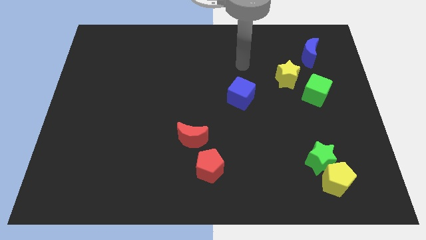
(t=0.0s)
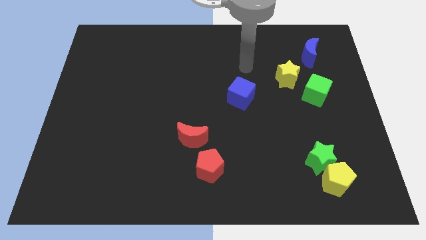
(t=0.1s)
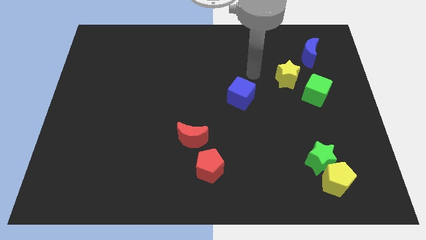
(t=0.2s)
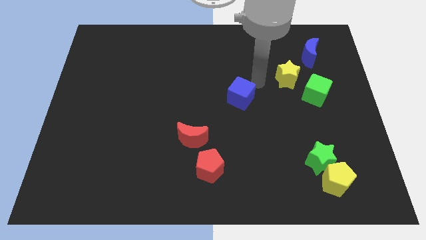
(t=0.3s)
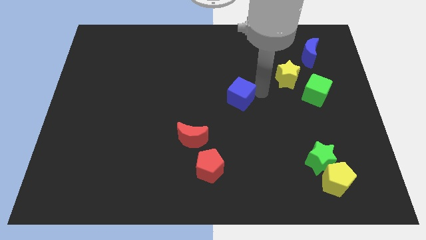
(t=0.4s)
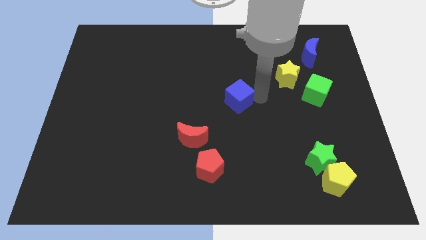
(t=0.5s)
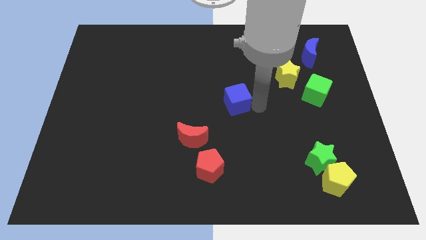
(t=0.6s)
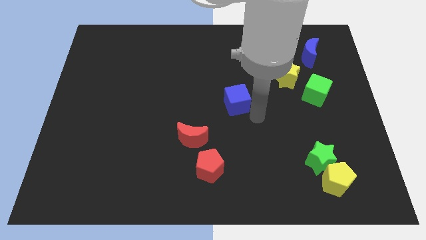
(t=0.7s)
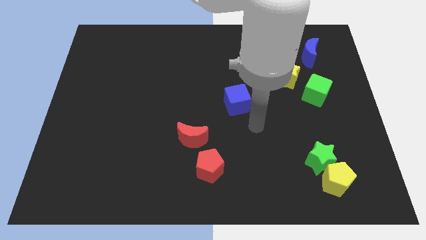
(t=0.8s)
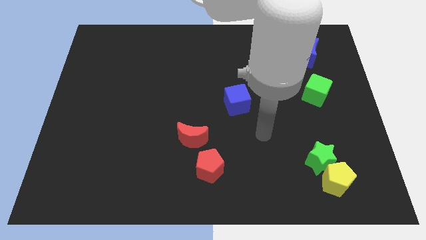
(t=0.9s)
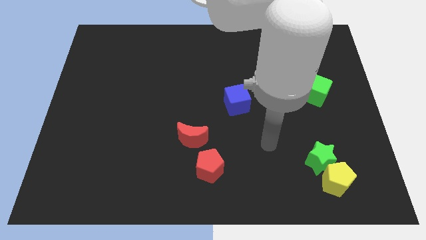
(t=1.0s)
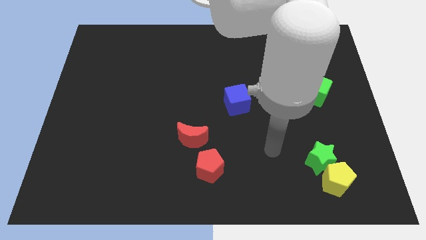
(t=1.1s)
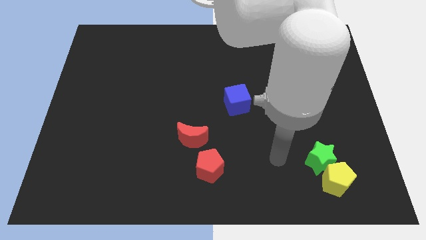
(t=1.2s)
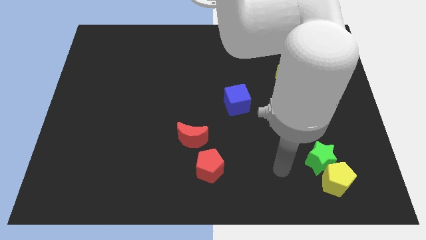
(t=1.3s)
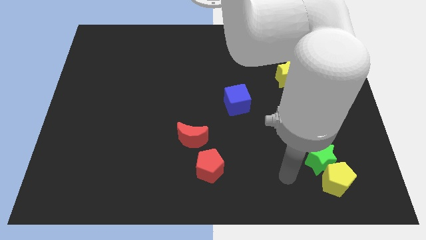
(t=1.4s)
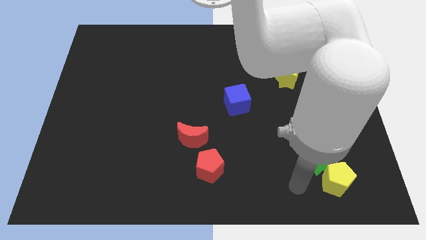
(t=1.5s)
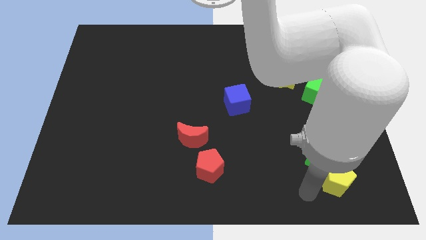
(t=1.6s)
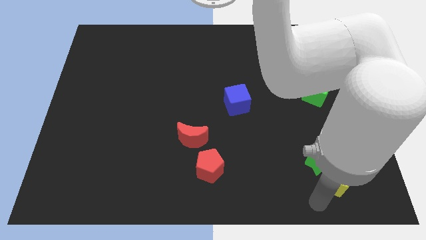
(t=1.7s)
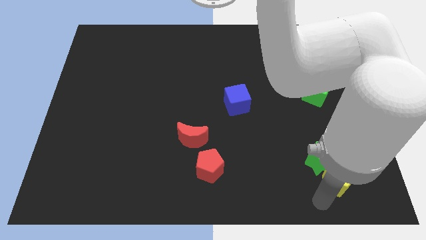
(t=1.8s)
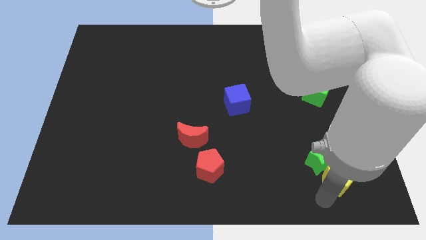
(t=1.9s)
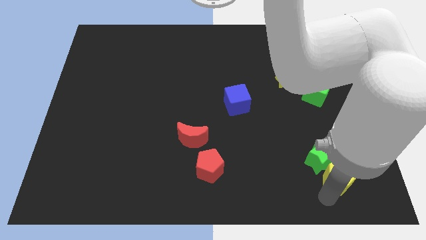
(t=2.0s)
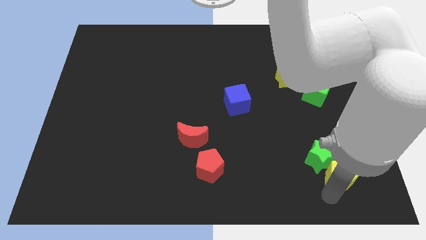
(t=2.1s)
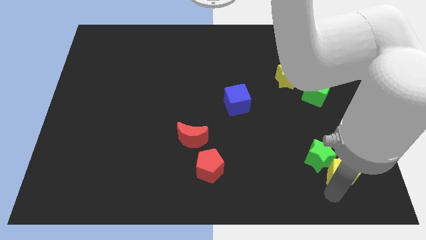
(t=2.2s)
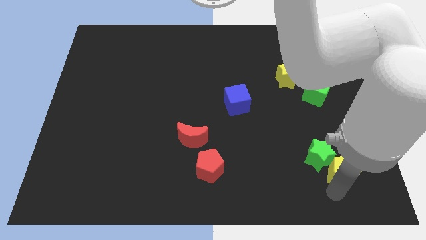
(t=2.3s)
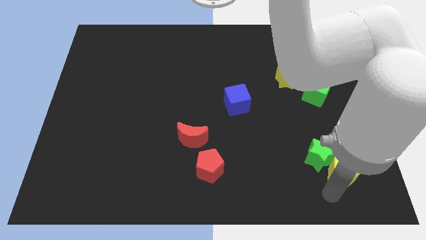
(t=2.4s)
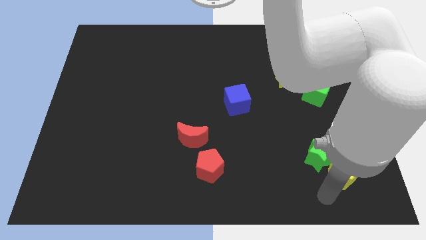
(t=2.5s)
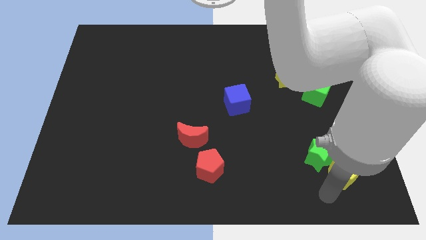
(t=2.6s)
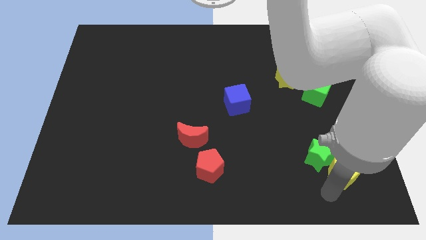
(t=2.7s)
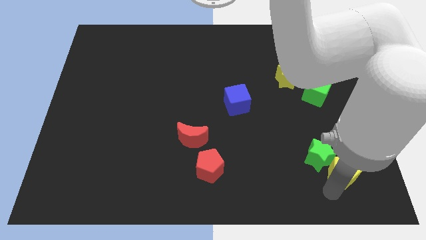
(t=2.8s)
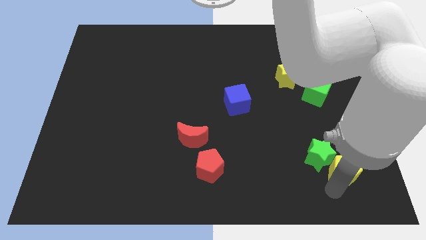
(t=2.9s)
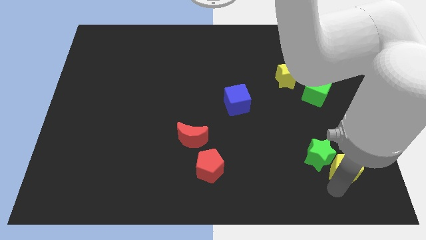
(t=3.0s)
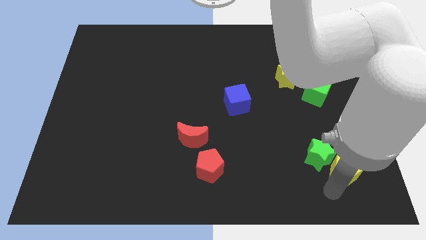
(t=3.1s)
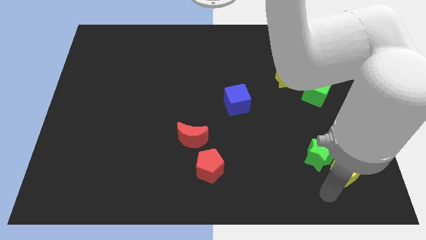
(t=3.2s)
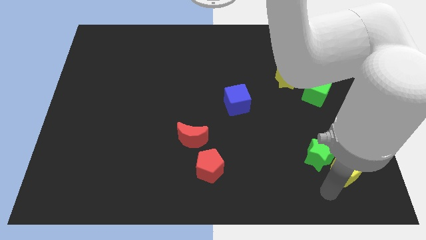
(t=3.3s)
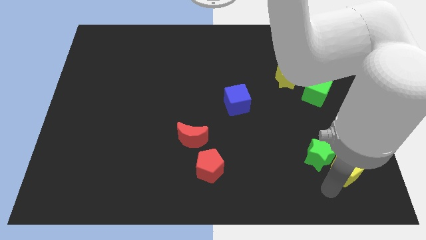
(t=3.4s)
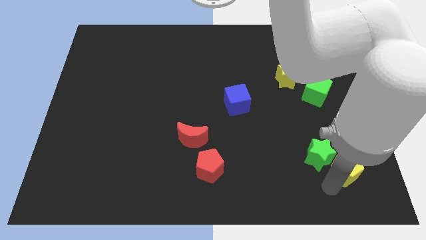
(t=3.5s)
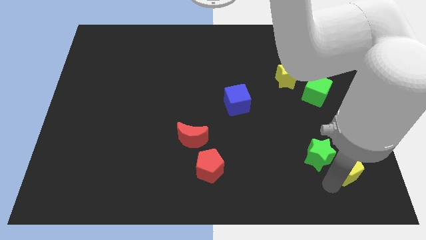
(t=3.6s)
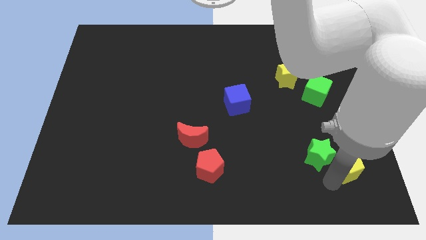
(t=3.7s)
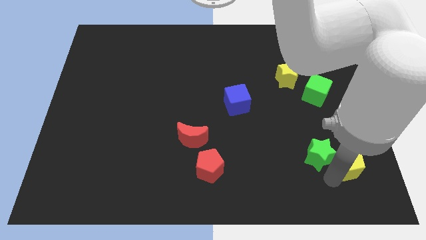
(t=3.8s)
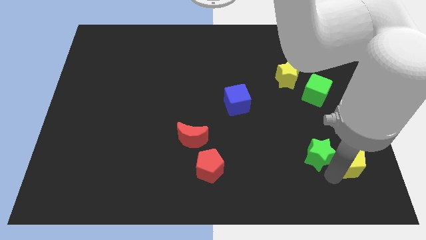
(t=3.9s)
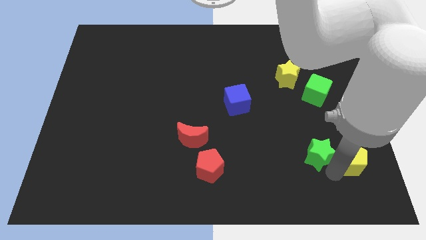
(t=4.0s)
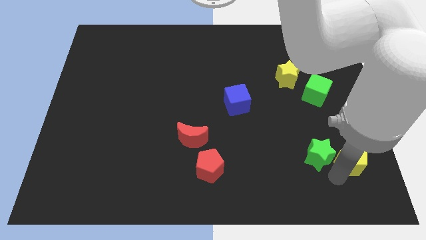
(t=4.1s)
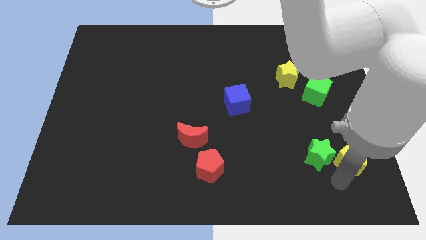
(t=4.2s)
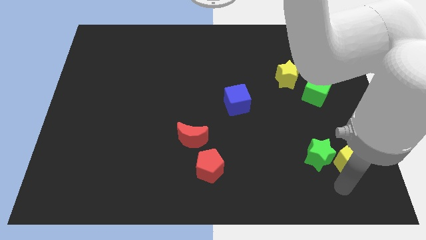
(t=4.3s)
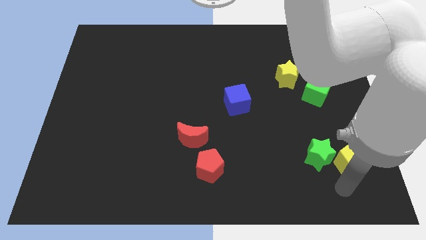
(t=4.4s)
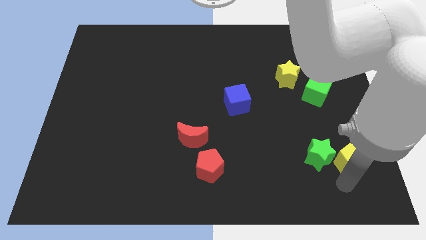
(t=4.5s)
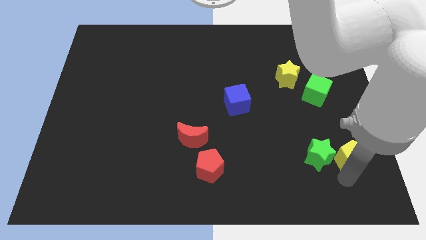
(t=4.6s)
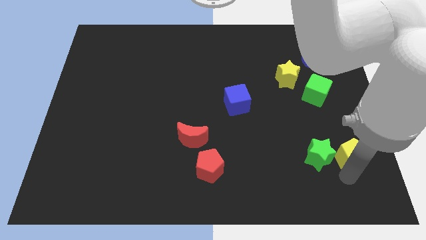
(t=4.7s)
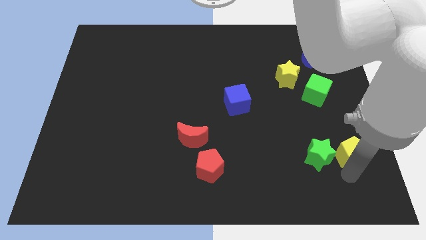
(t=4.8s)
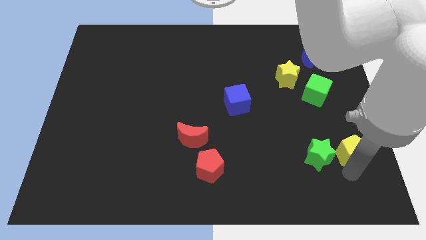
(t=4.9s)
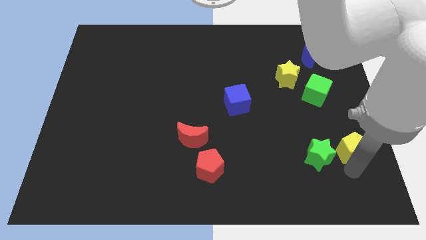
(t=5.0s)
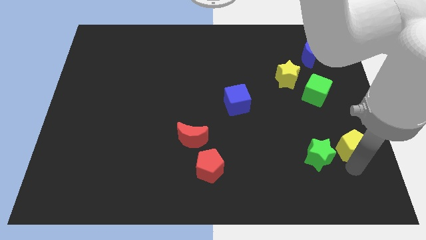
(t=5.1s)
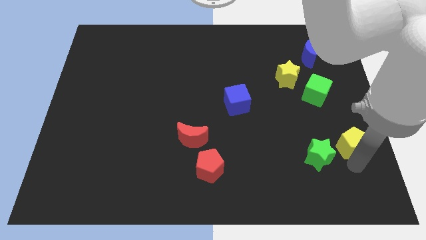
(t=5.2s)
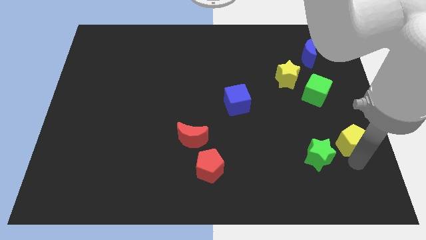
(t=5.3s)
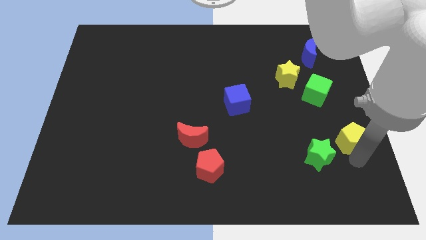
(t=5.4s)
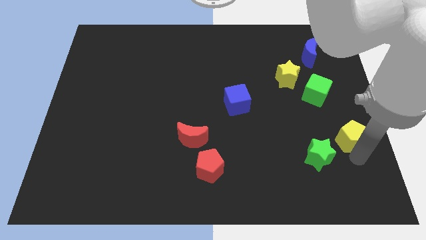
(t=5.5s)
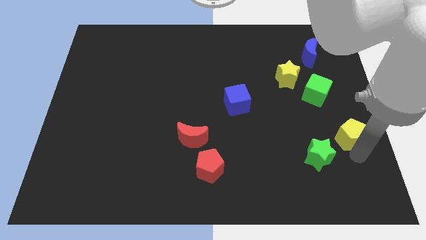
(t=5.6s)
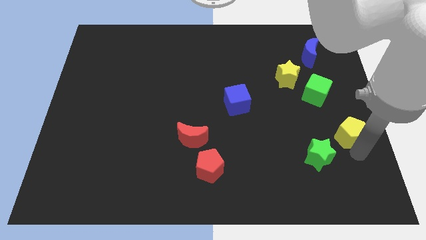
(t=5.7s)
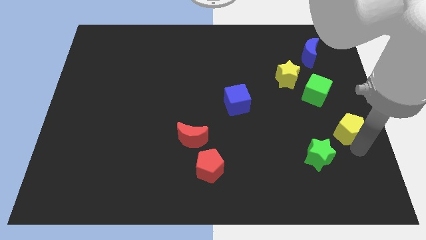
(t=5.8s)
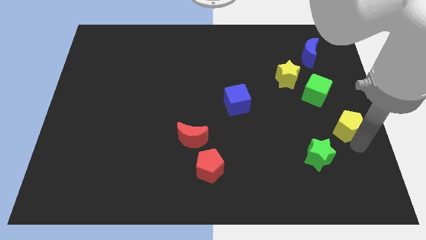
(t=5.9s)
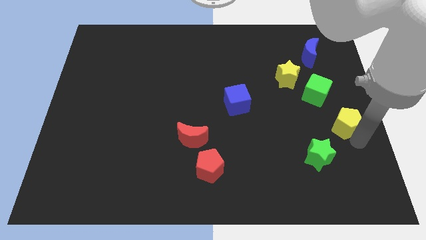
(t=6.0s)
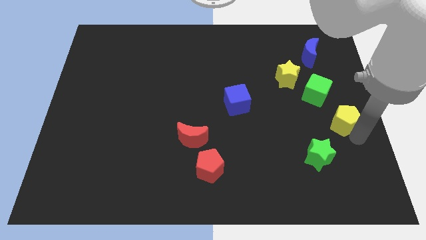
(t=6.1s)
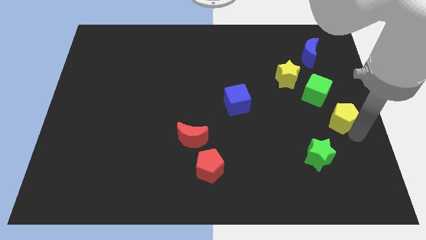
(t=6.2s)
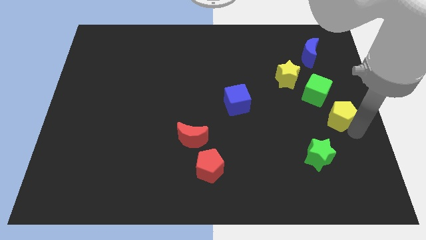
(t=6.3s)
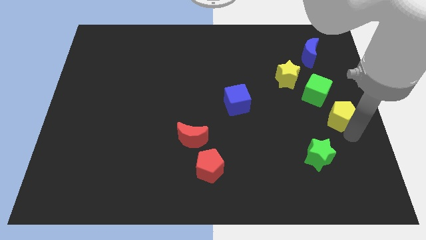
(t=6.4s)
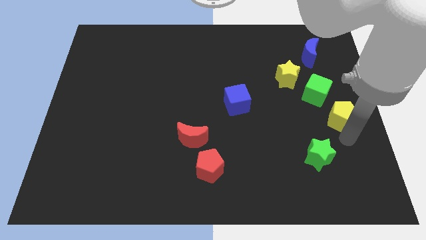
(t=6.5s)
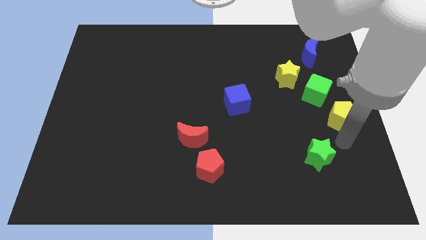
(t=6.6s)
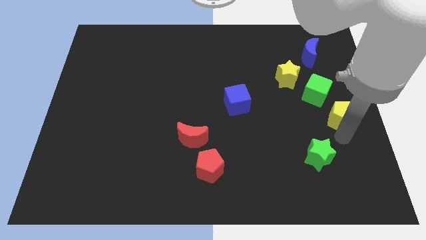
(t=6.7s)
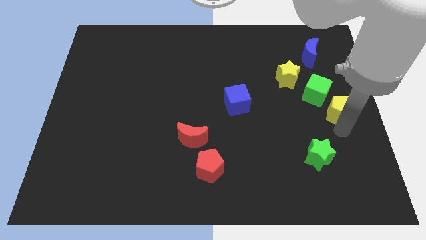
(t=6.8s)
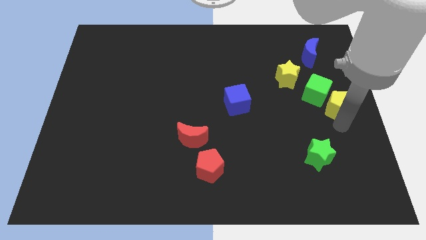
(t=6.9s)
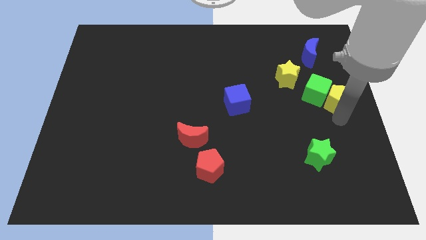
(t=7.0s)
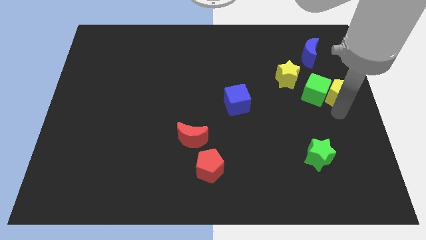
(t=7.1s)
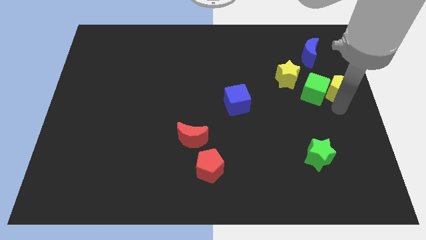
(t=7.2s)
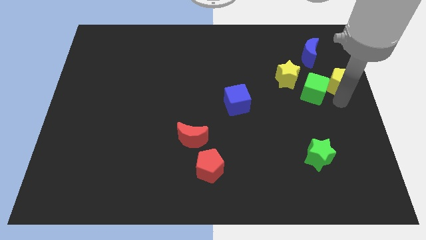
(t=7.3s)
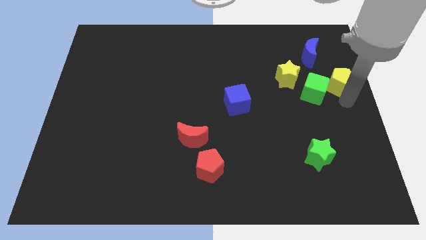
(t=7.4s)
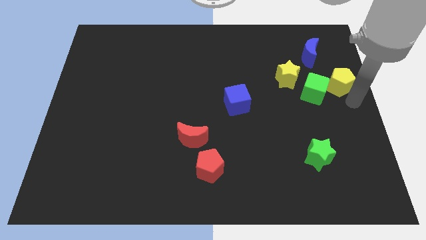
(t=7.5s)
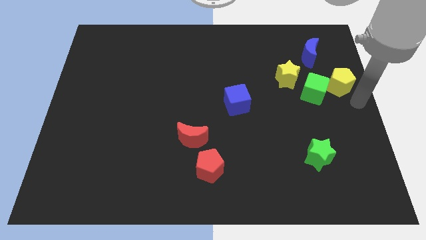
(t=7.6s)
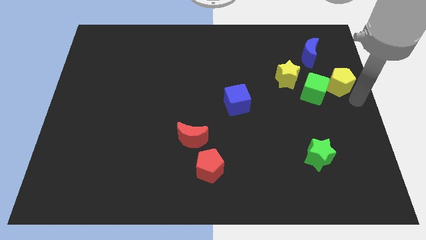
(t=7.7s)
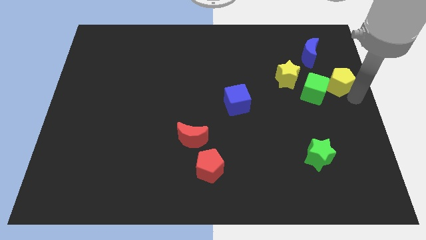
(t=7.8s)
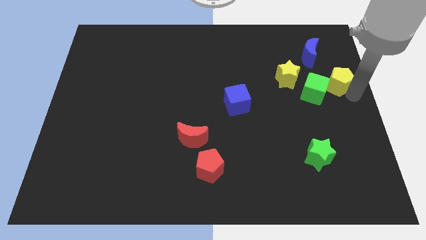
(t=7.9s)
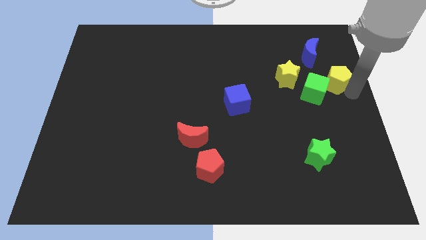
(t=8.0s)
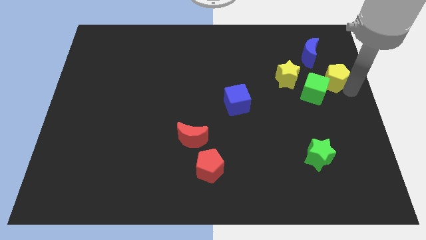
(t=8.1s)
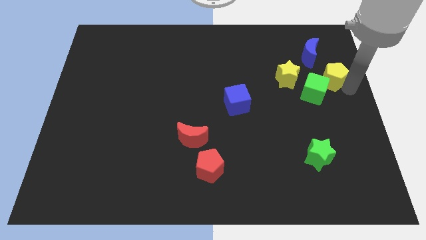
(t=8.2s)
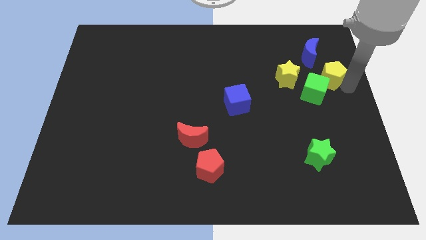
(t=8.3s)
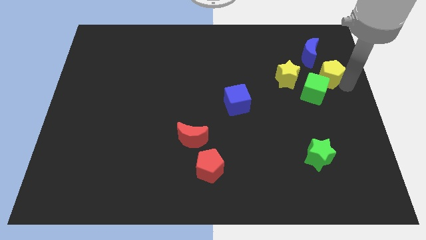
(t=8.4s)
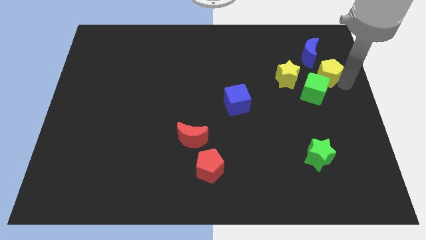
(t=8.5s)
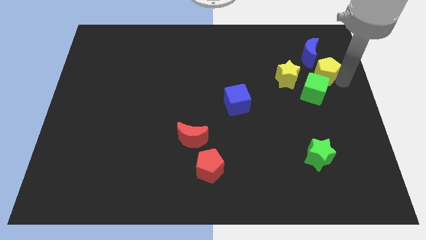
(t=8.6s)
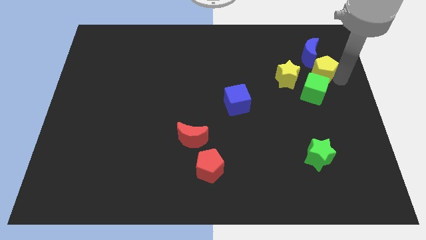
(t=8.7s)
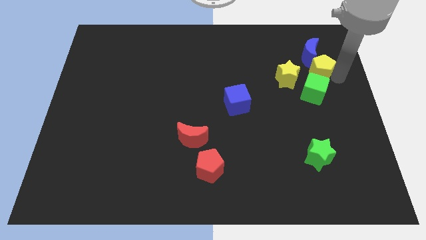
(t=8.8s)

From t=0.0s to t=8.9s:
move the yellow pentagon next to the blue moon
